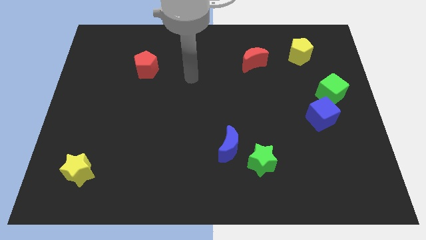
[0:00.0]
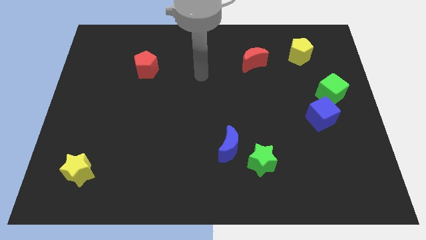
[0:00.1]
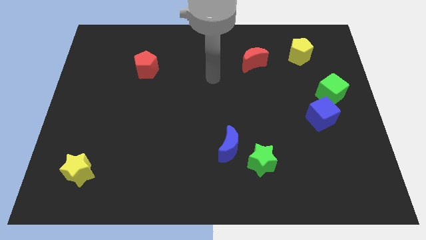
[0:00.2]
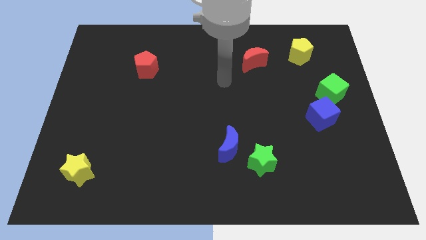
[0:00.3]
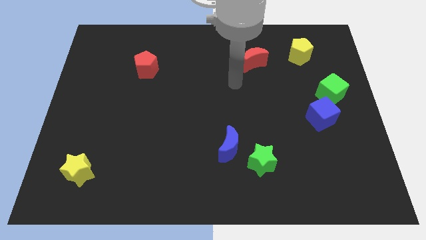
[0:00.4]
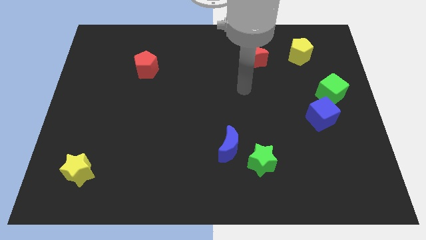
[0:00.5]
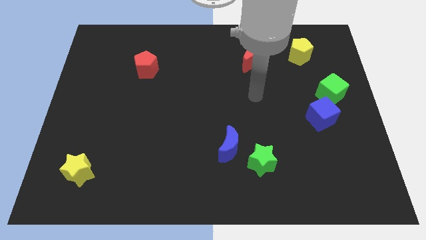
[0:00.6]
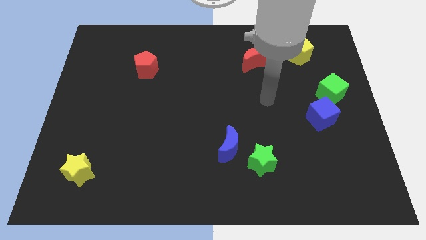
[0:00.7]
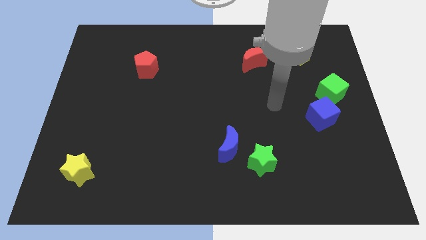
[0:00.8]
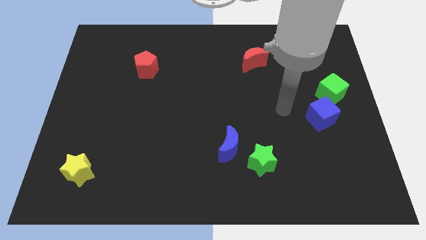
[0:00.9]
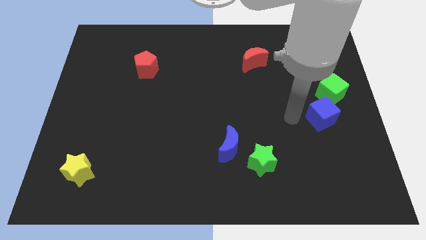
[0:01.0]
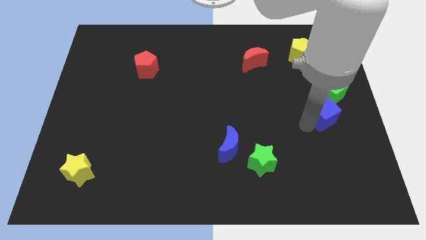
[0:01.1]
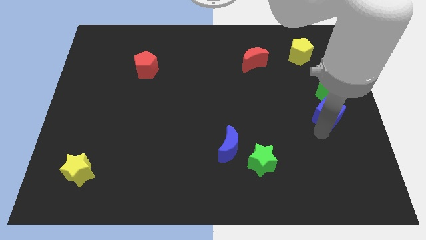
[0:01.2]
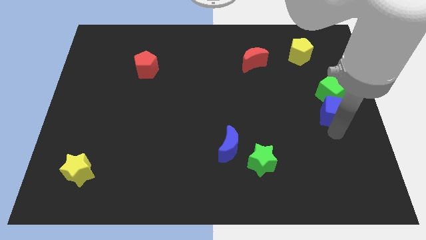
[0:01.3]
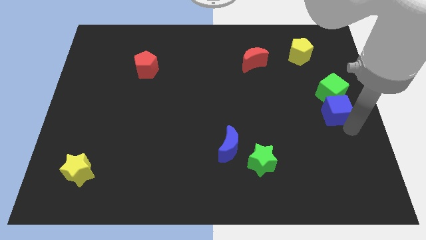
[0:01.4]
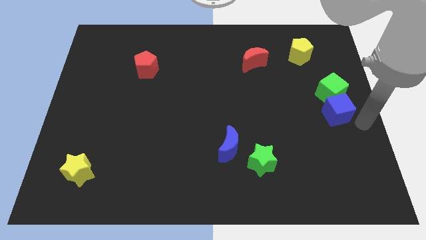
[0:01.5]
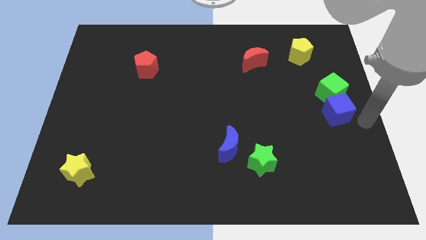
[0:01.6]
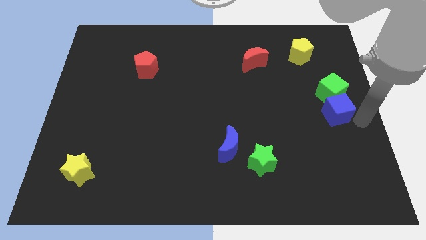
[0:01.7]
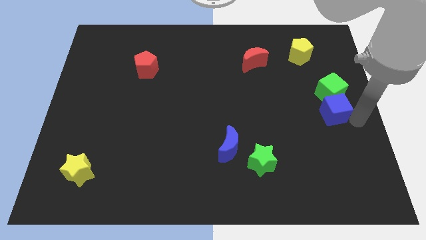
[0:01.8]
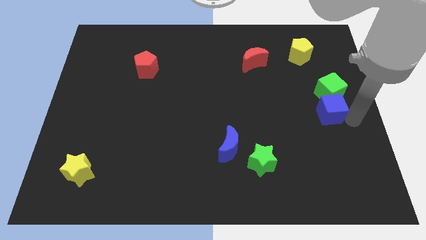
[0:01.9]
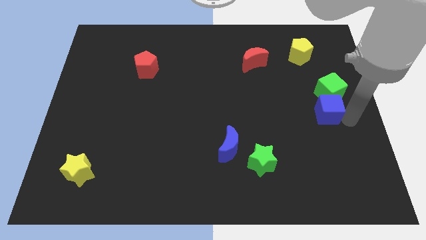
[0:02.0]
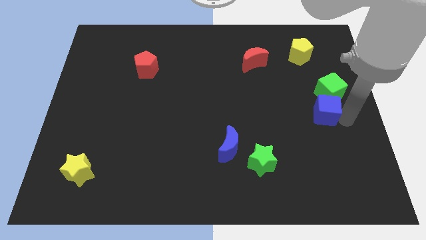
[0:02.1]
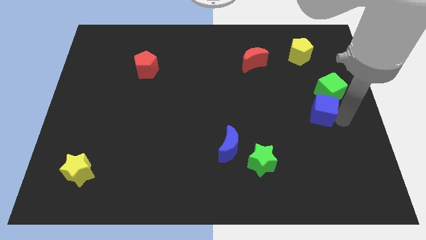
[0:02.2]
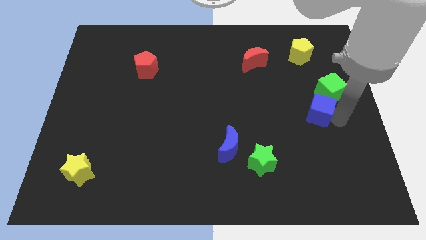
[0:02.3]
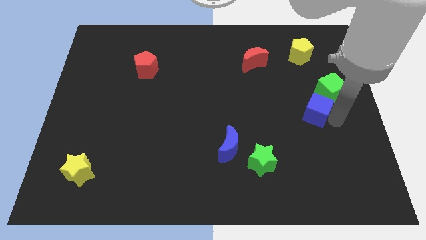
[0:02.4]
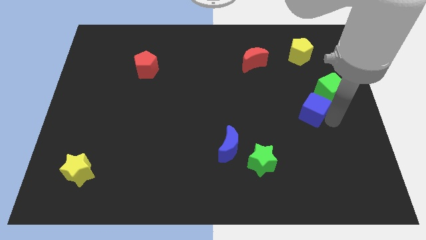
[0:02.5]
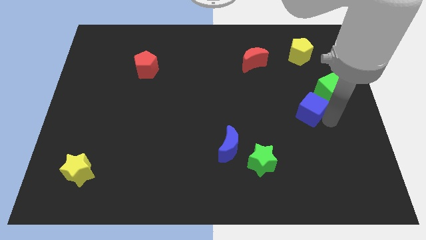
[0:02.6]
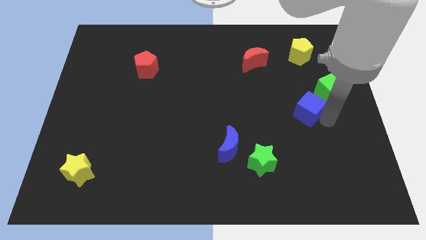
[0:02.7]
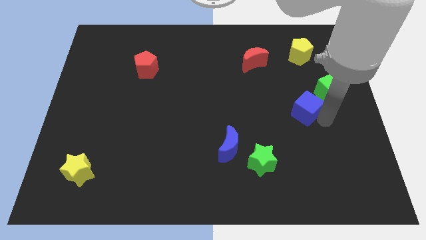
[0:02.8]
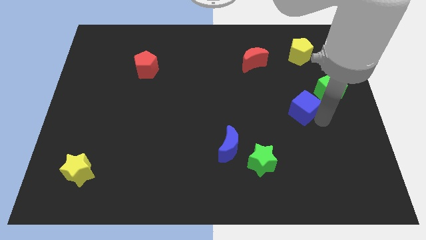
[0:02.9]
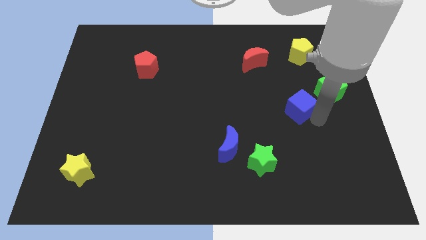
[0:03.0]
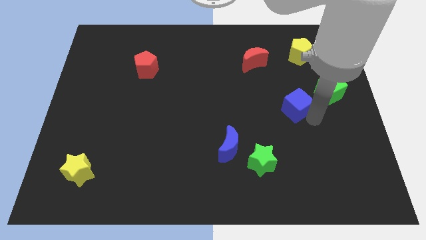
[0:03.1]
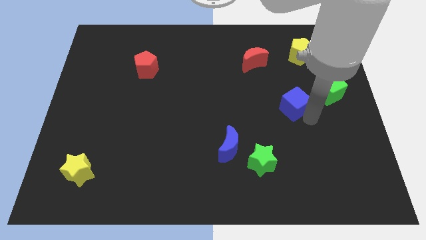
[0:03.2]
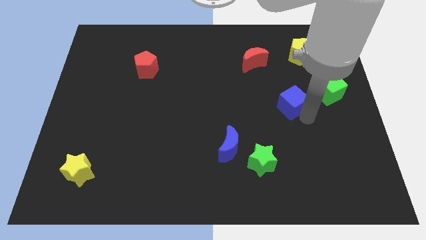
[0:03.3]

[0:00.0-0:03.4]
slide the blue cube up and then left a little bit

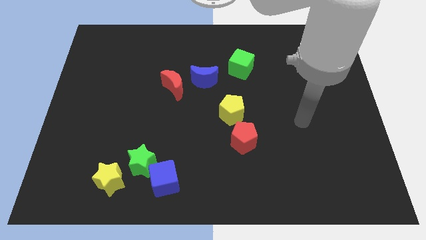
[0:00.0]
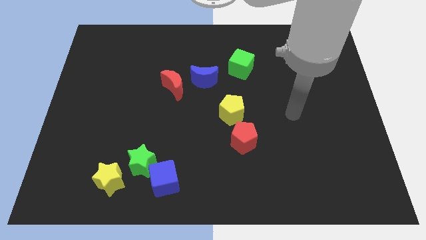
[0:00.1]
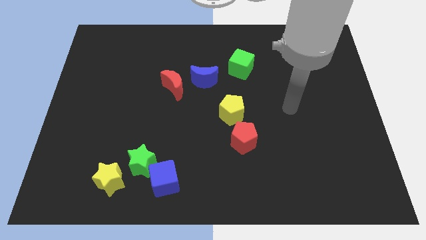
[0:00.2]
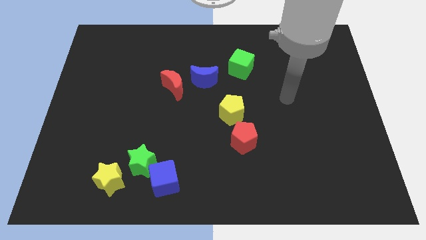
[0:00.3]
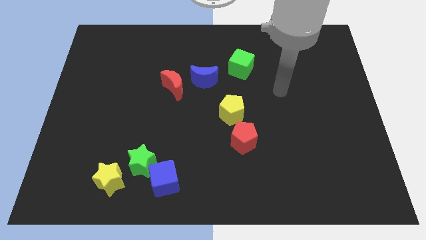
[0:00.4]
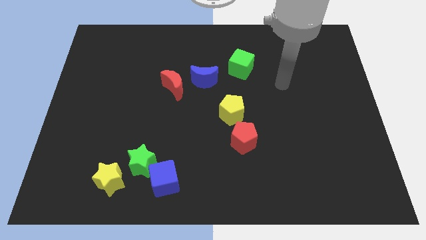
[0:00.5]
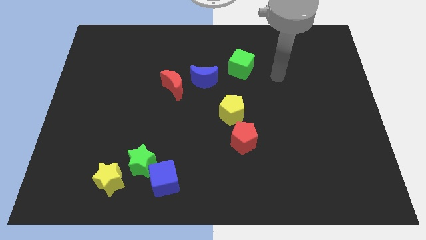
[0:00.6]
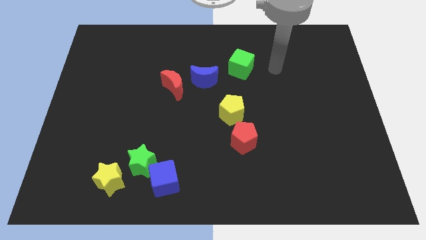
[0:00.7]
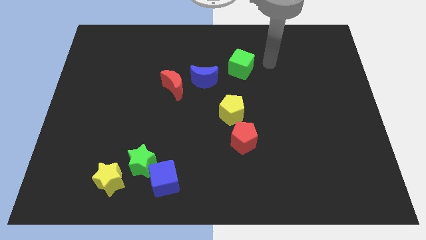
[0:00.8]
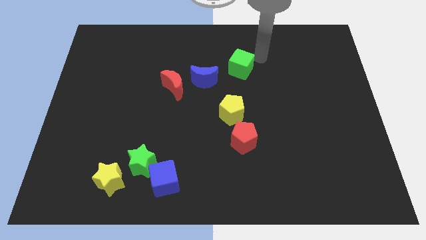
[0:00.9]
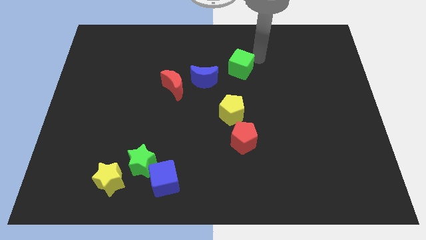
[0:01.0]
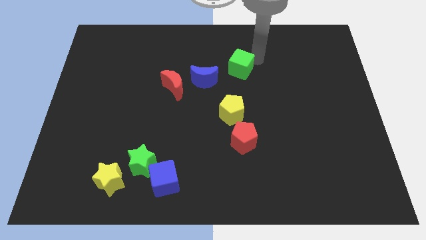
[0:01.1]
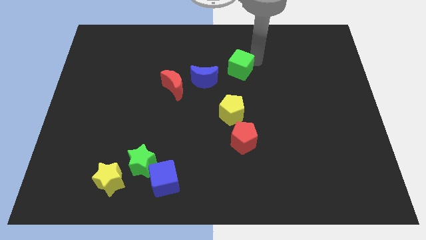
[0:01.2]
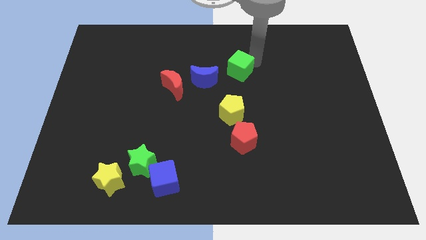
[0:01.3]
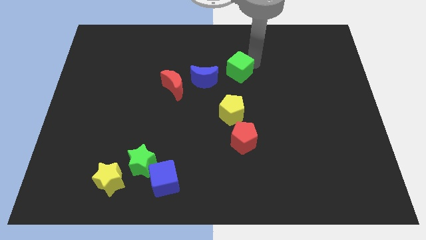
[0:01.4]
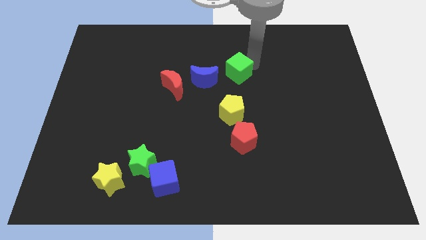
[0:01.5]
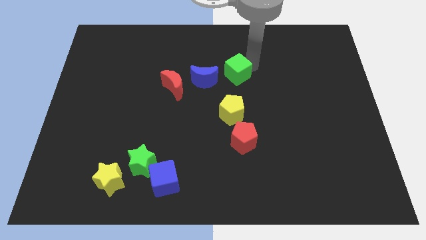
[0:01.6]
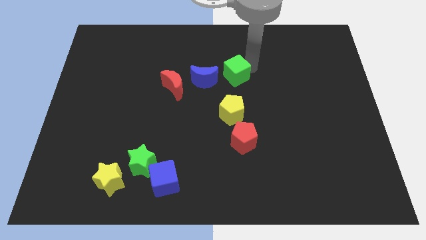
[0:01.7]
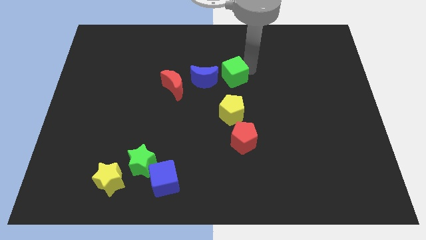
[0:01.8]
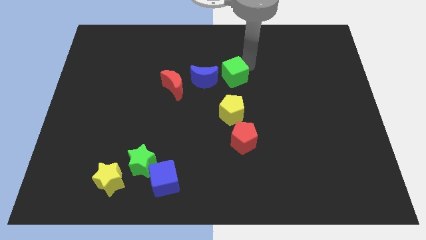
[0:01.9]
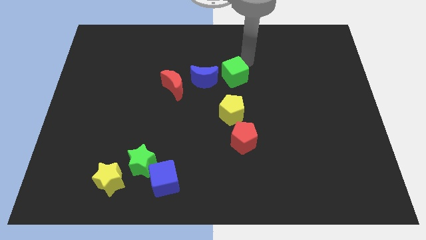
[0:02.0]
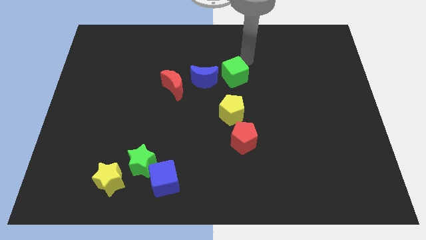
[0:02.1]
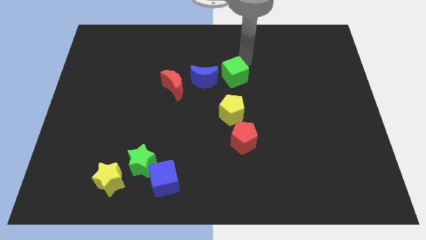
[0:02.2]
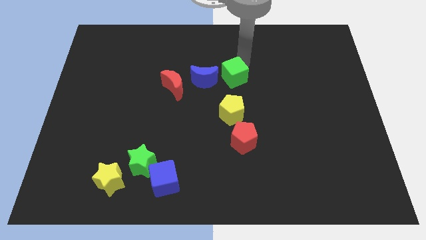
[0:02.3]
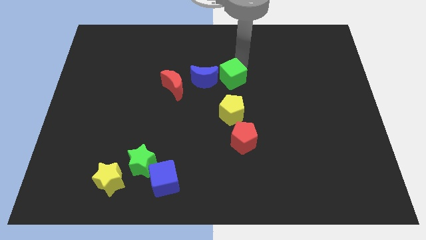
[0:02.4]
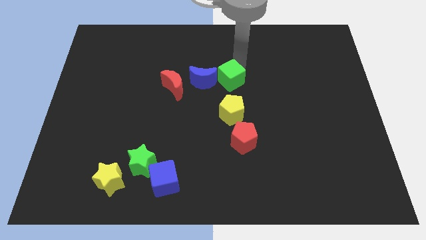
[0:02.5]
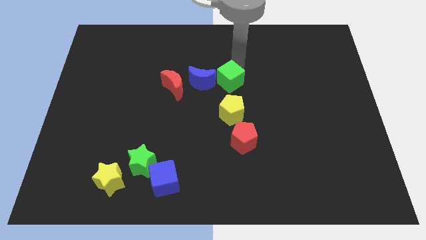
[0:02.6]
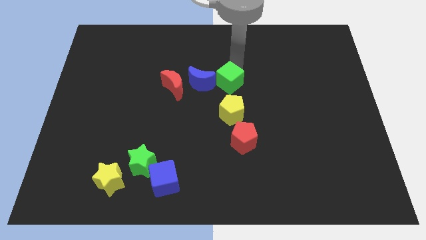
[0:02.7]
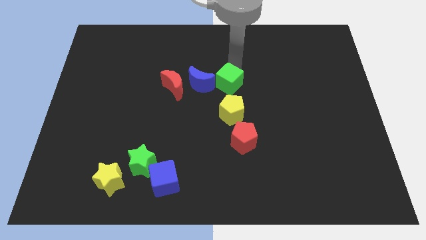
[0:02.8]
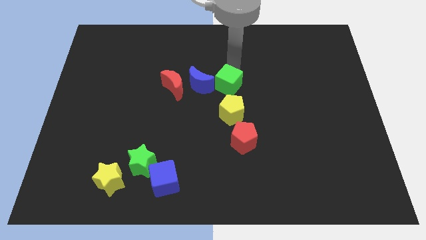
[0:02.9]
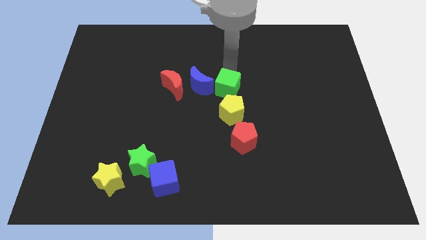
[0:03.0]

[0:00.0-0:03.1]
push the green cube a bit diagonally down and left

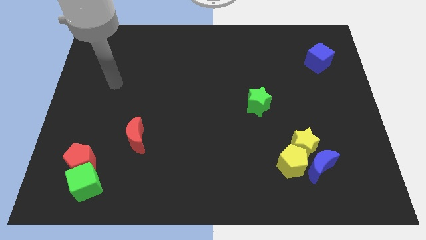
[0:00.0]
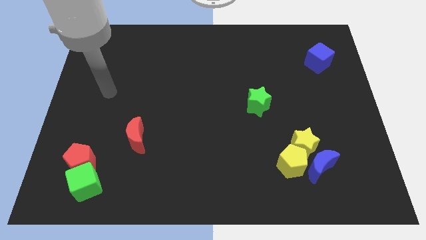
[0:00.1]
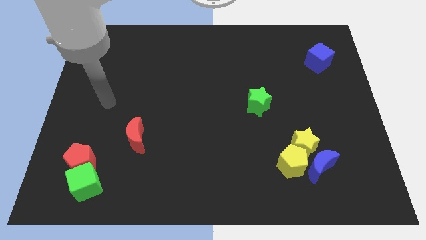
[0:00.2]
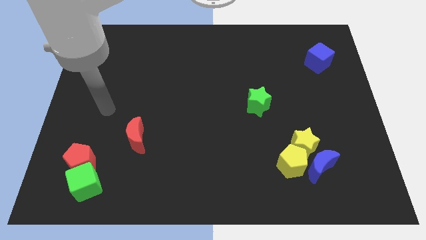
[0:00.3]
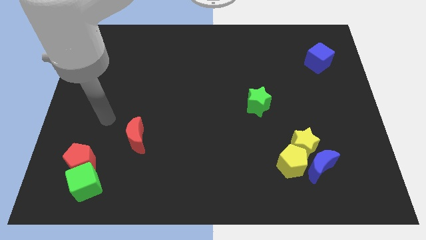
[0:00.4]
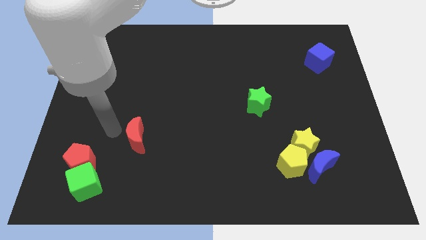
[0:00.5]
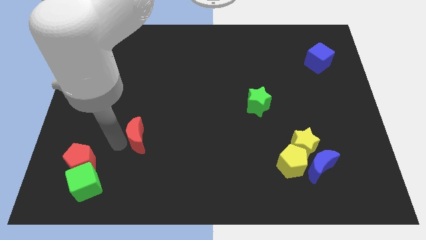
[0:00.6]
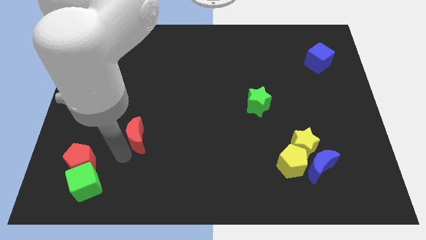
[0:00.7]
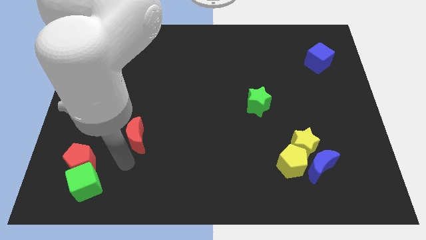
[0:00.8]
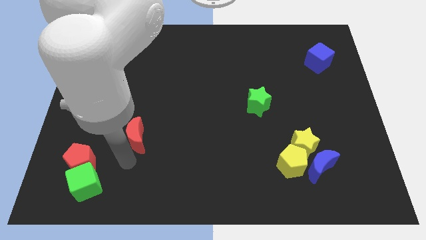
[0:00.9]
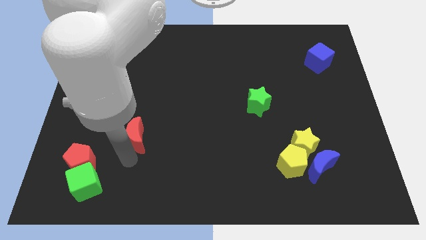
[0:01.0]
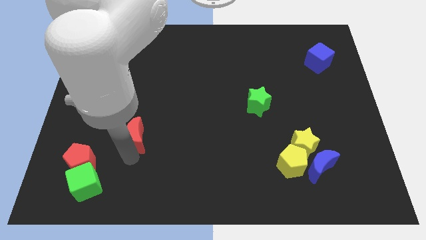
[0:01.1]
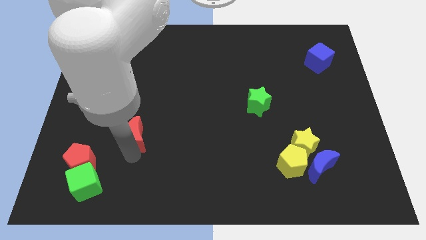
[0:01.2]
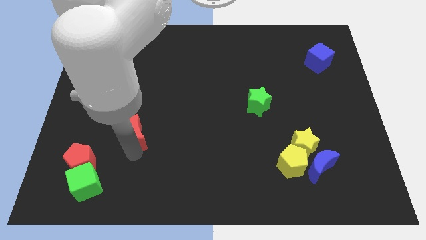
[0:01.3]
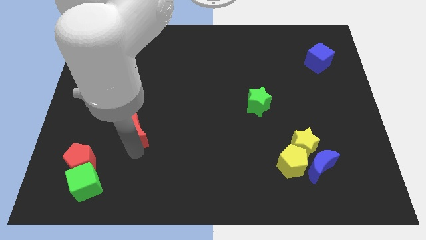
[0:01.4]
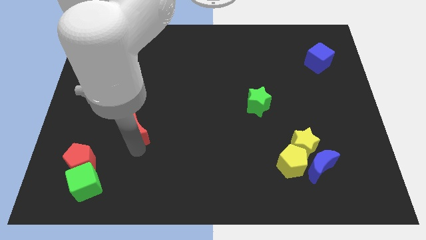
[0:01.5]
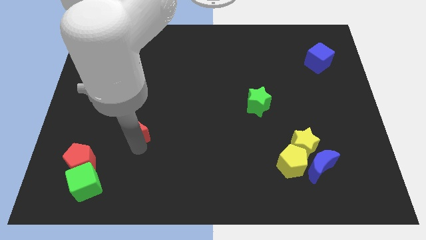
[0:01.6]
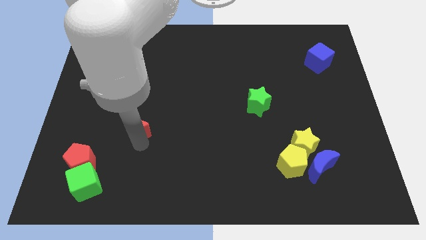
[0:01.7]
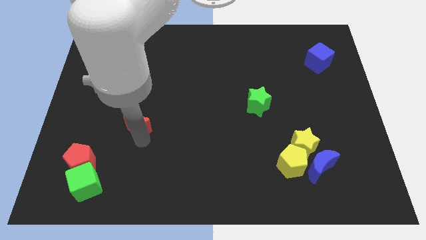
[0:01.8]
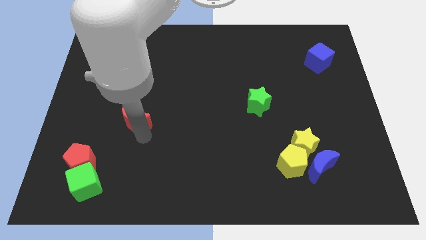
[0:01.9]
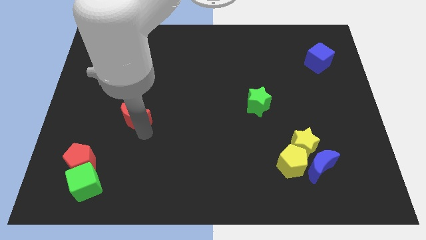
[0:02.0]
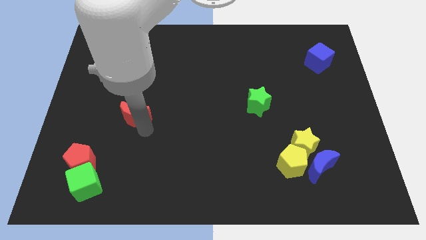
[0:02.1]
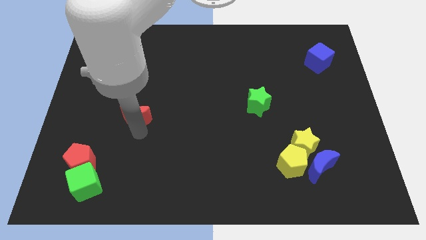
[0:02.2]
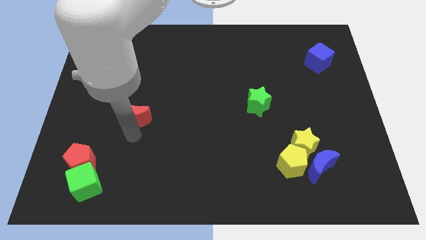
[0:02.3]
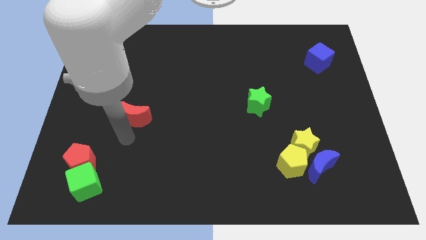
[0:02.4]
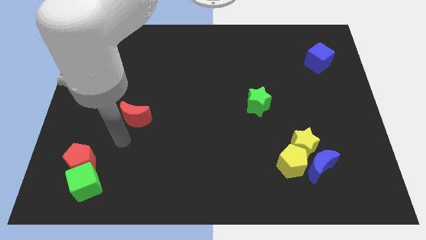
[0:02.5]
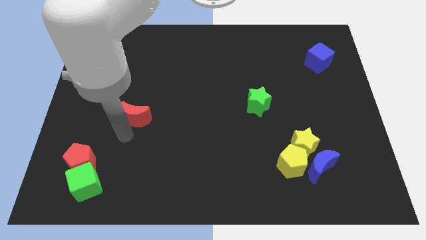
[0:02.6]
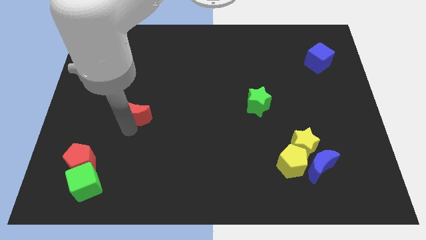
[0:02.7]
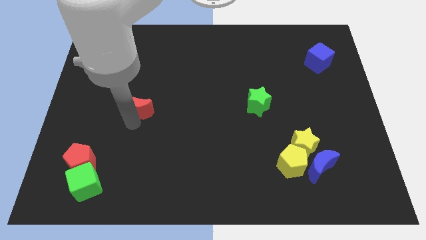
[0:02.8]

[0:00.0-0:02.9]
push the red moon up slightly
